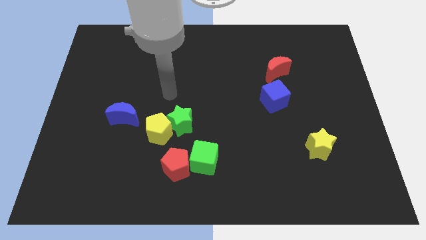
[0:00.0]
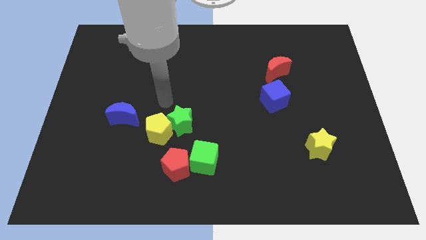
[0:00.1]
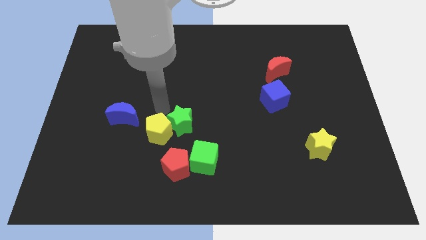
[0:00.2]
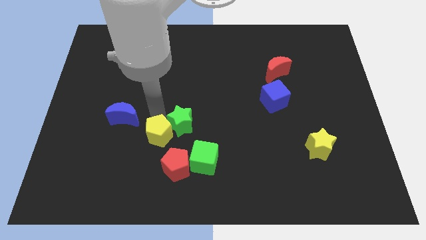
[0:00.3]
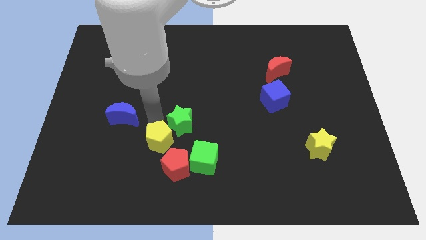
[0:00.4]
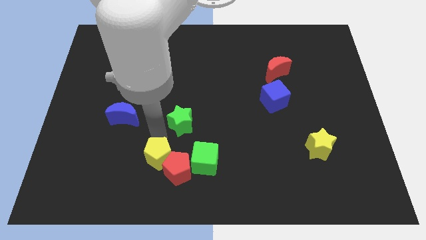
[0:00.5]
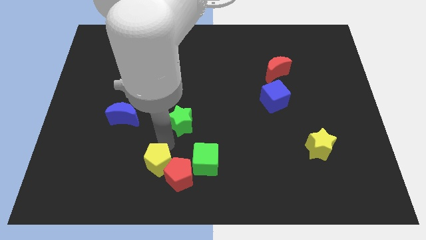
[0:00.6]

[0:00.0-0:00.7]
move the green star away from the yellow pentagon

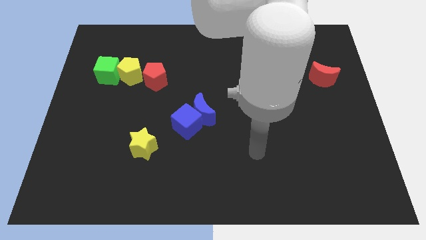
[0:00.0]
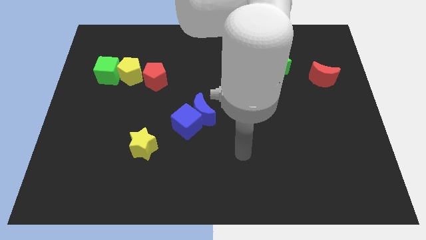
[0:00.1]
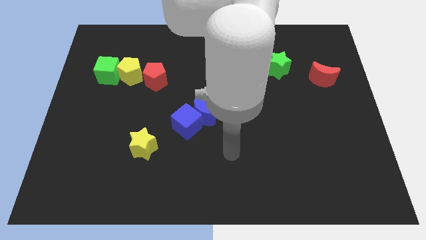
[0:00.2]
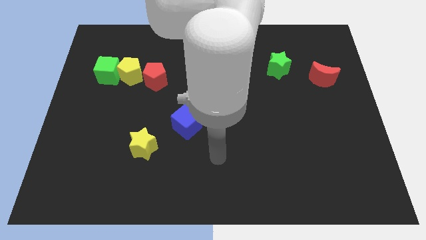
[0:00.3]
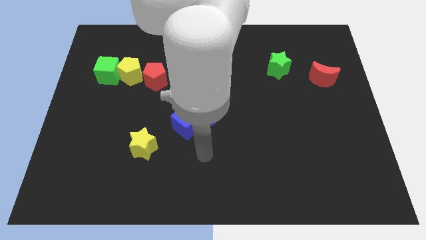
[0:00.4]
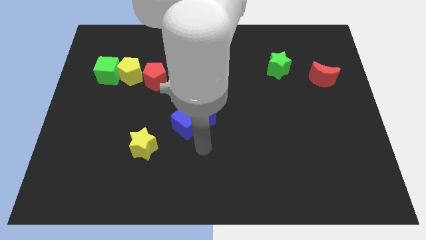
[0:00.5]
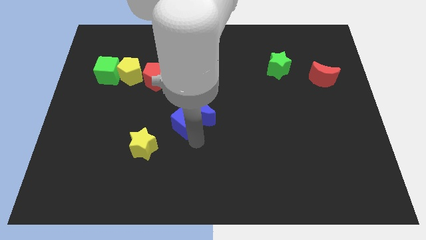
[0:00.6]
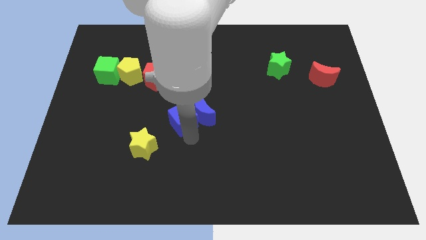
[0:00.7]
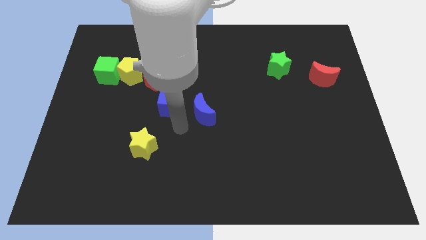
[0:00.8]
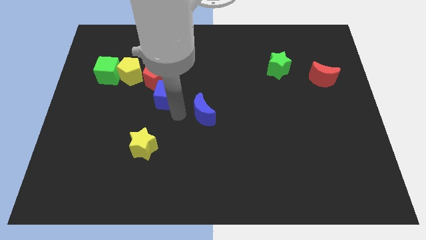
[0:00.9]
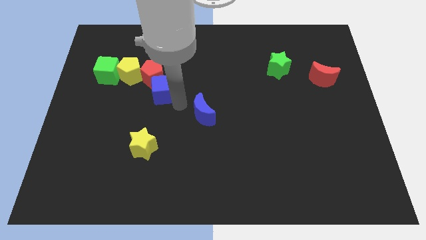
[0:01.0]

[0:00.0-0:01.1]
pull the blue moon apart from the blue cube

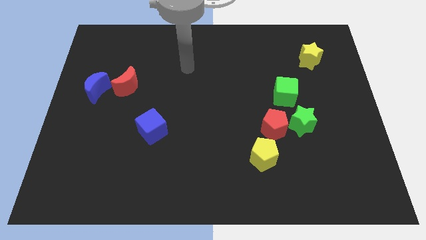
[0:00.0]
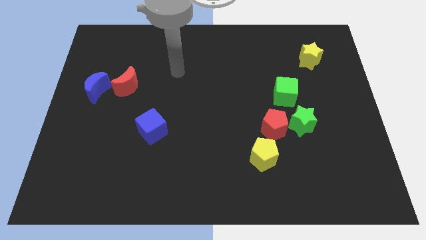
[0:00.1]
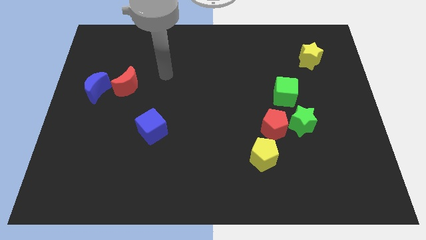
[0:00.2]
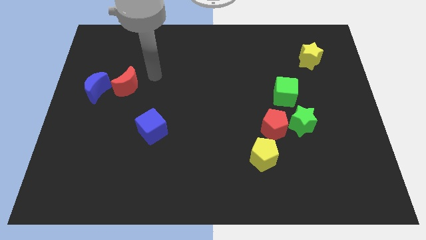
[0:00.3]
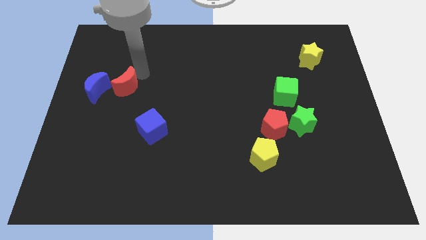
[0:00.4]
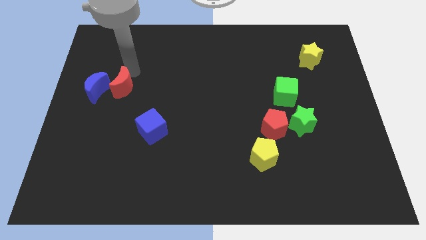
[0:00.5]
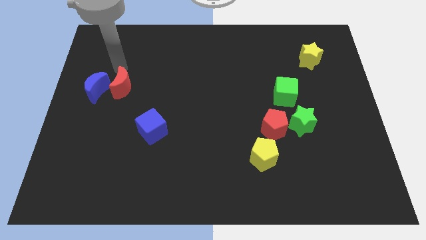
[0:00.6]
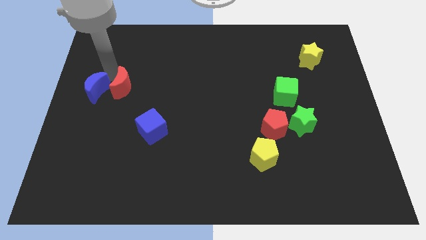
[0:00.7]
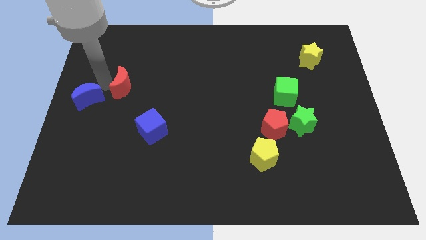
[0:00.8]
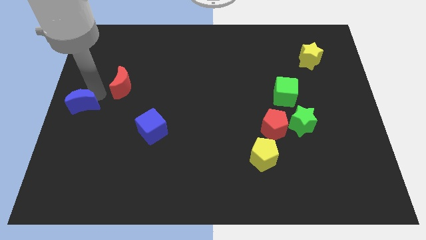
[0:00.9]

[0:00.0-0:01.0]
separate the red moon from the blue moon

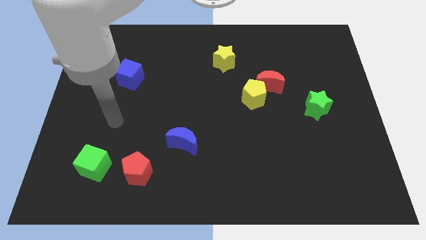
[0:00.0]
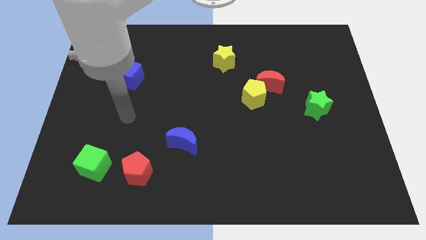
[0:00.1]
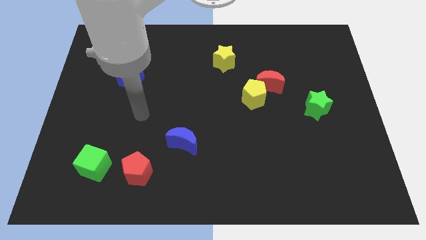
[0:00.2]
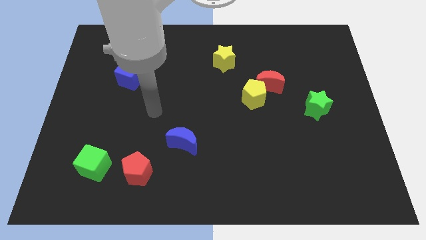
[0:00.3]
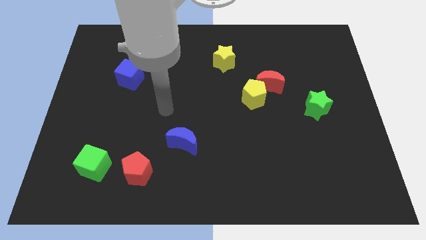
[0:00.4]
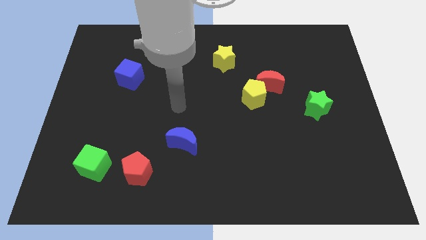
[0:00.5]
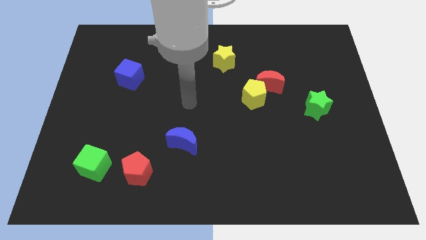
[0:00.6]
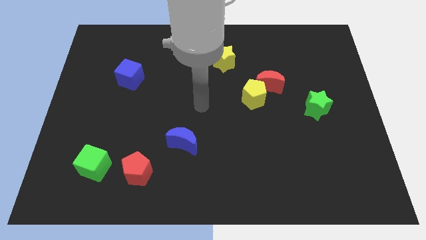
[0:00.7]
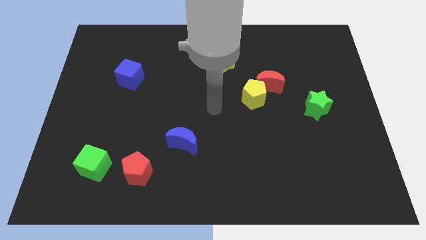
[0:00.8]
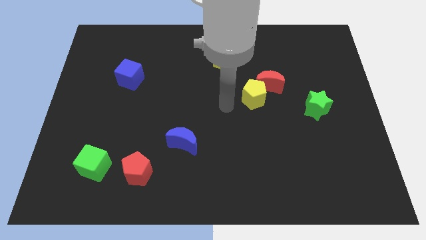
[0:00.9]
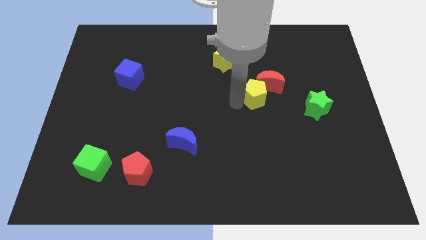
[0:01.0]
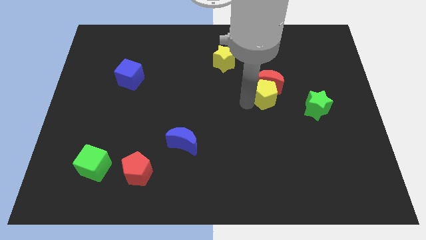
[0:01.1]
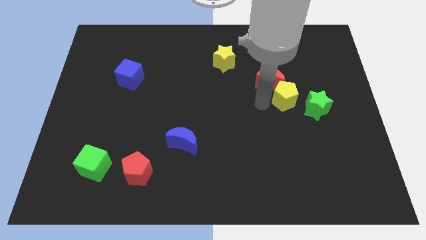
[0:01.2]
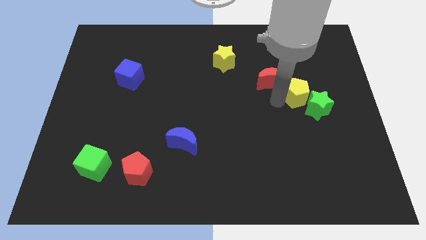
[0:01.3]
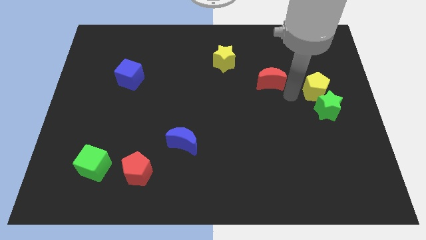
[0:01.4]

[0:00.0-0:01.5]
move the red moon away from the yellow pentagon

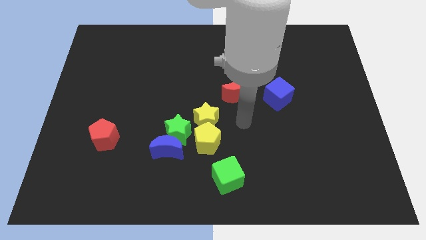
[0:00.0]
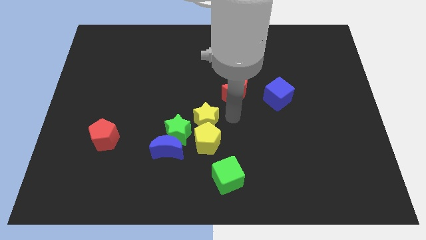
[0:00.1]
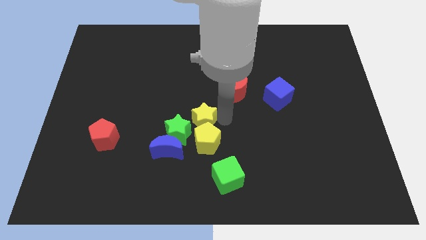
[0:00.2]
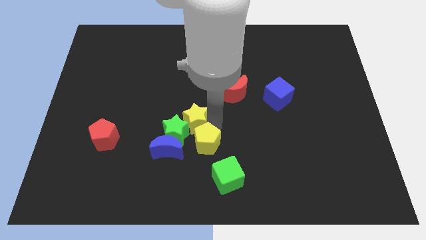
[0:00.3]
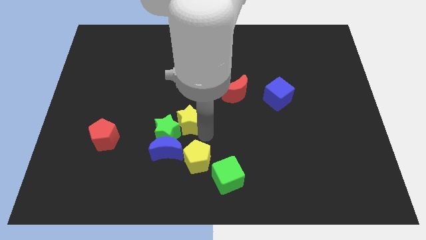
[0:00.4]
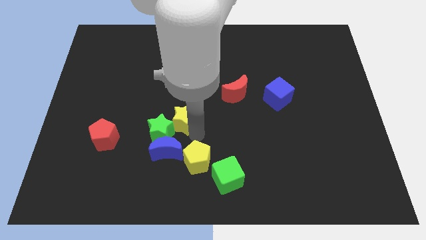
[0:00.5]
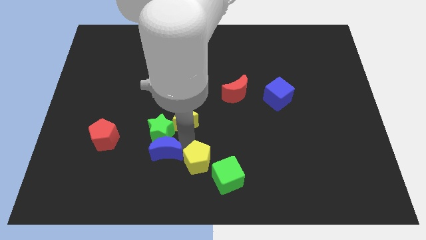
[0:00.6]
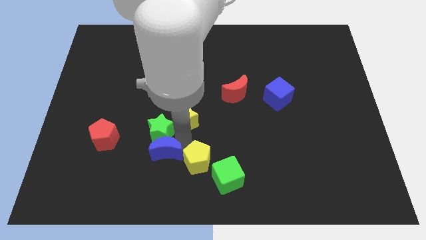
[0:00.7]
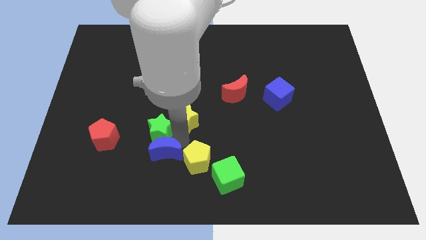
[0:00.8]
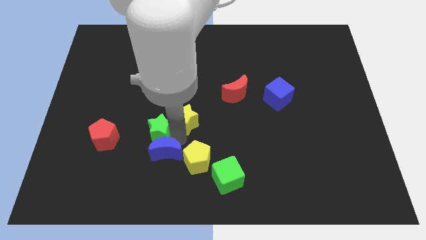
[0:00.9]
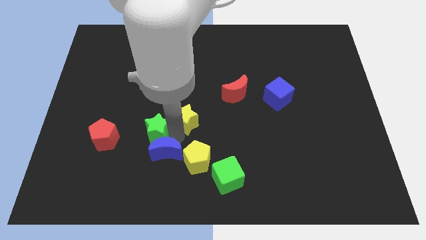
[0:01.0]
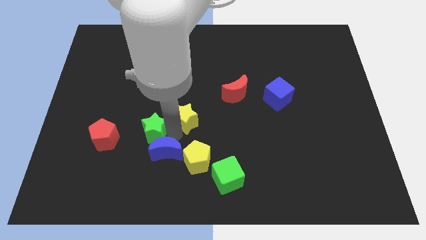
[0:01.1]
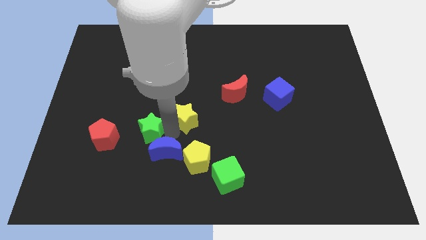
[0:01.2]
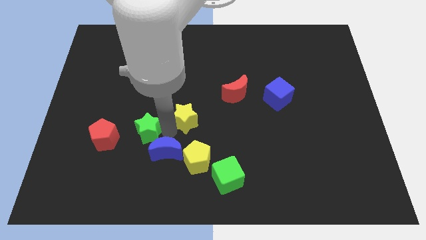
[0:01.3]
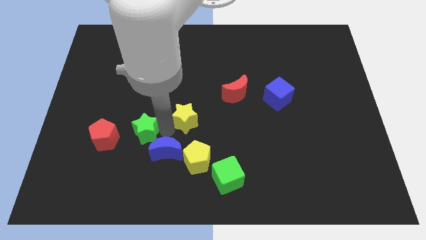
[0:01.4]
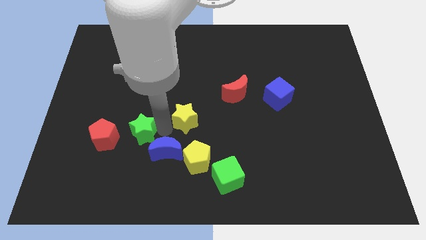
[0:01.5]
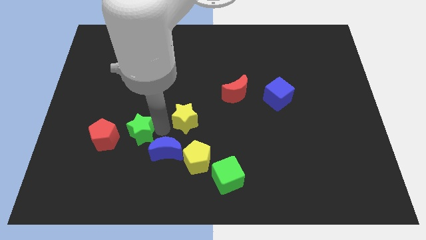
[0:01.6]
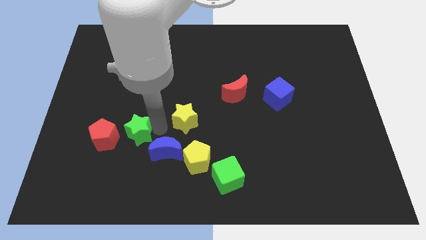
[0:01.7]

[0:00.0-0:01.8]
move the green star away from the clump

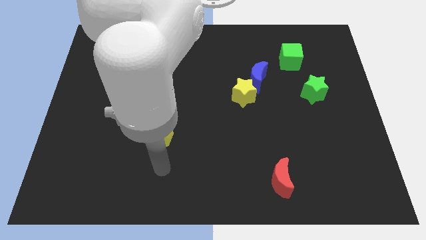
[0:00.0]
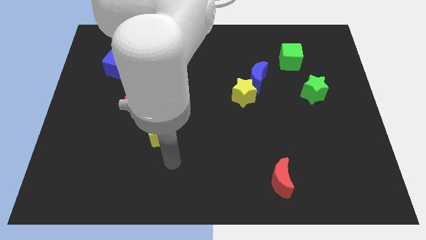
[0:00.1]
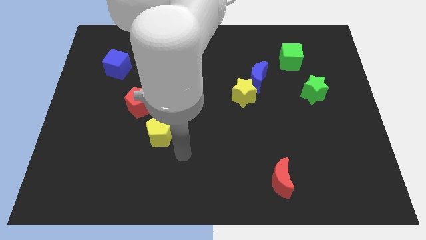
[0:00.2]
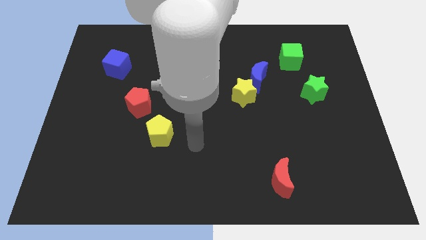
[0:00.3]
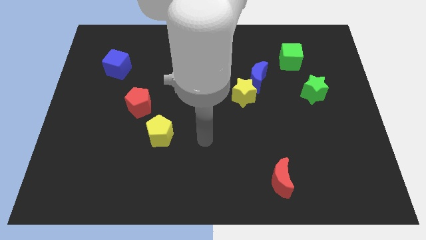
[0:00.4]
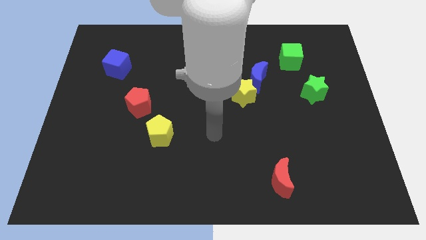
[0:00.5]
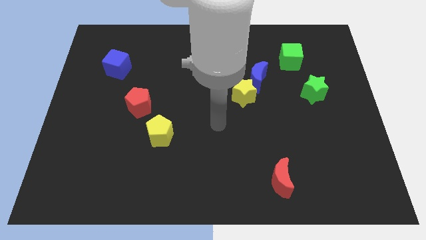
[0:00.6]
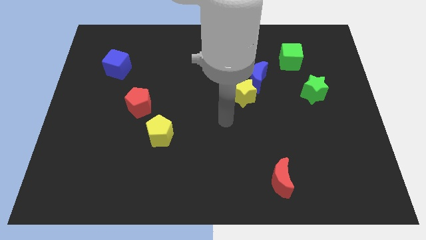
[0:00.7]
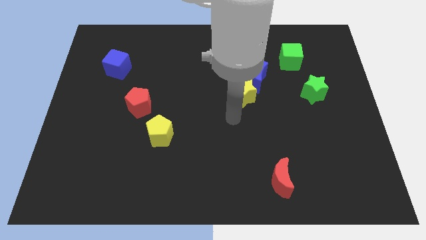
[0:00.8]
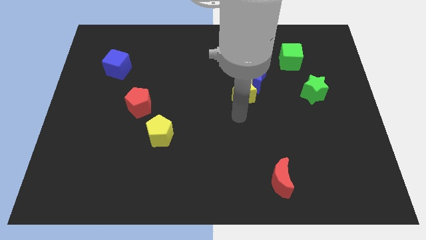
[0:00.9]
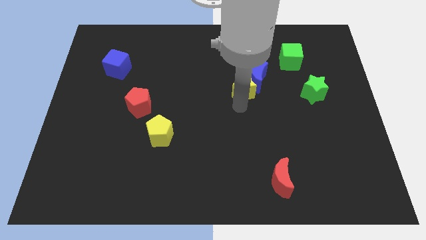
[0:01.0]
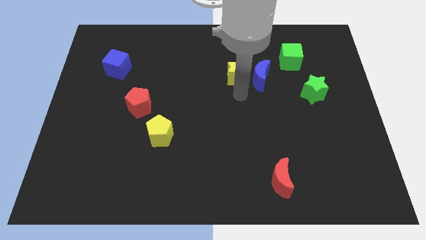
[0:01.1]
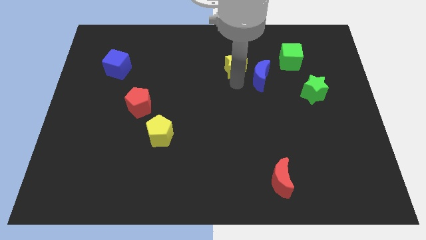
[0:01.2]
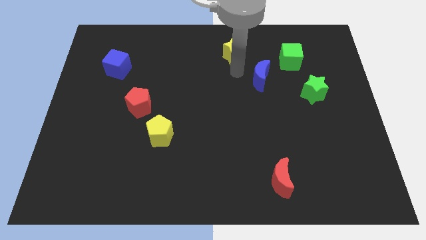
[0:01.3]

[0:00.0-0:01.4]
pull the blue moon apart from the yellow star

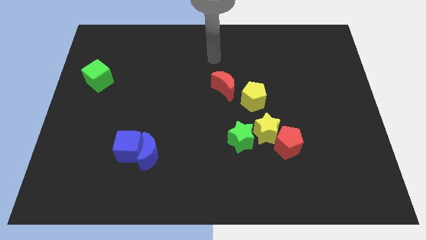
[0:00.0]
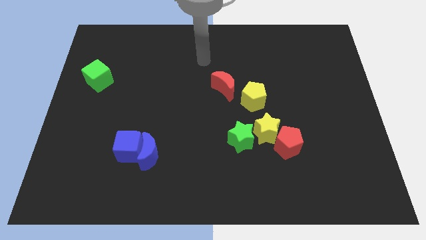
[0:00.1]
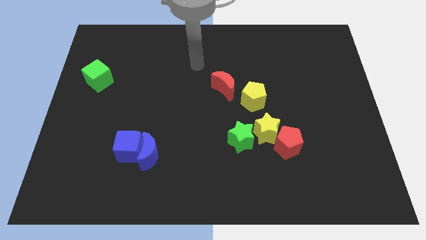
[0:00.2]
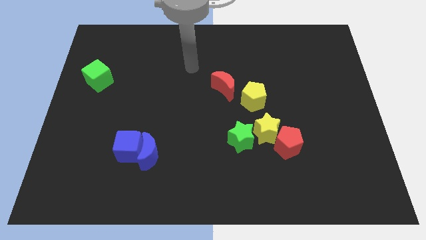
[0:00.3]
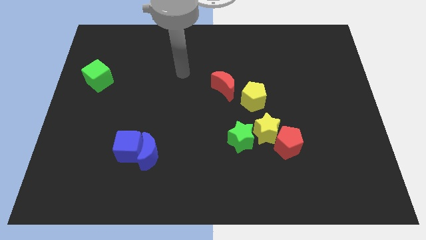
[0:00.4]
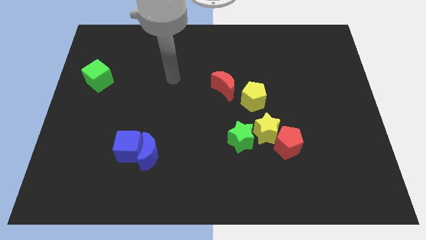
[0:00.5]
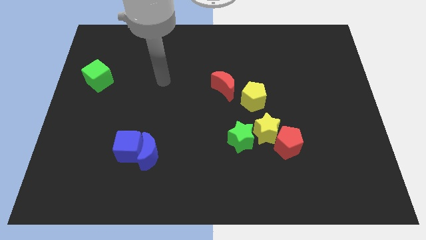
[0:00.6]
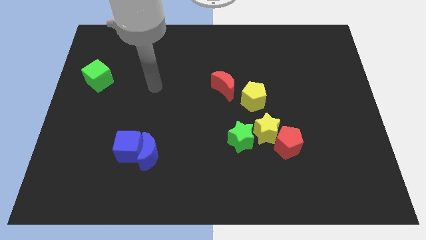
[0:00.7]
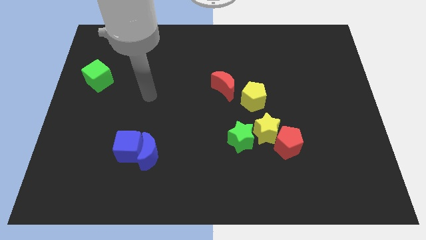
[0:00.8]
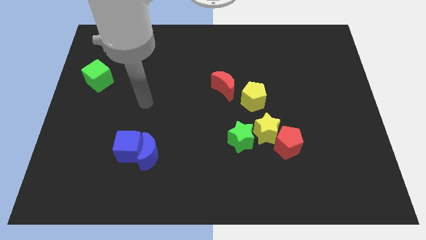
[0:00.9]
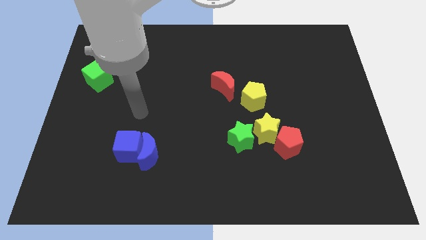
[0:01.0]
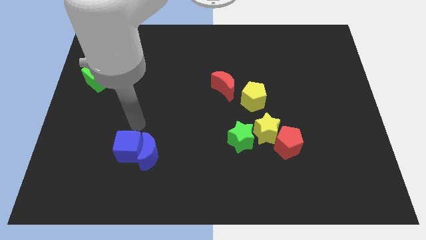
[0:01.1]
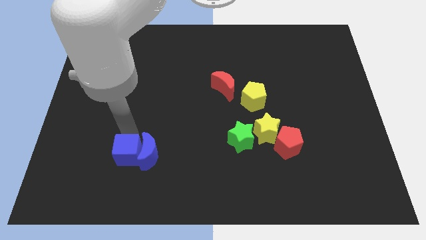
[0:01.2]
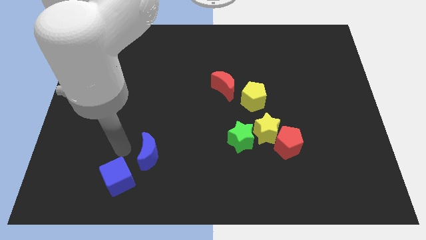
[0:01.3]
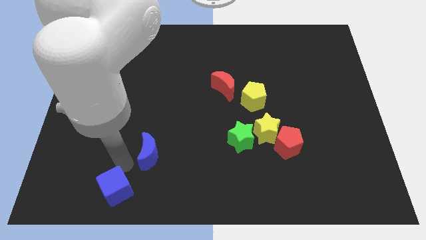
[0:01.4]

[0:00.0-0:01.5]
separate the blue moon from the blue cube

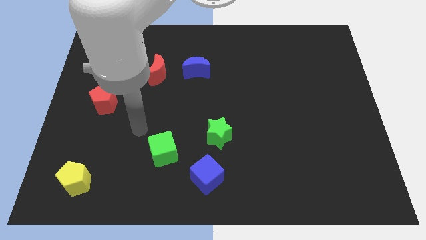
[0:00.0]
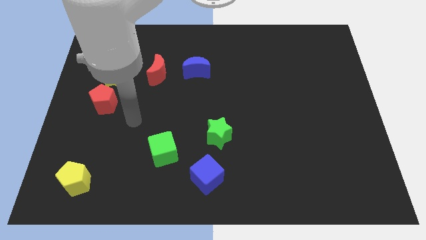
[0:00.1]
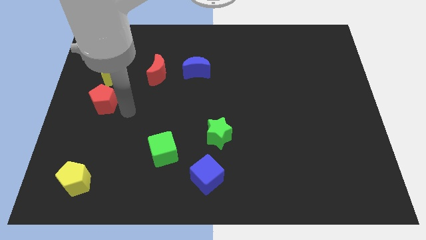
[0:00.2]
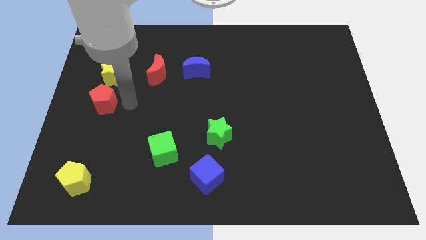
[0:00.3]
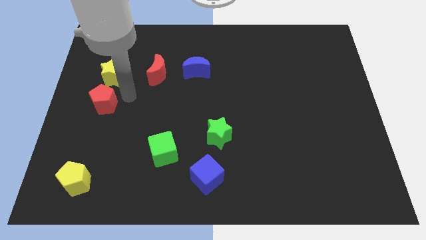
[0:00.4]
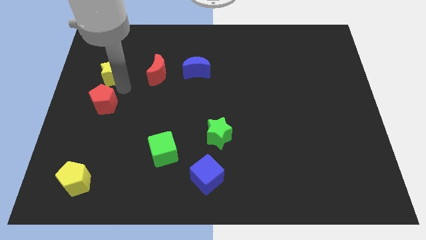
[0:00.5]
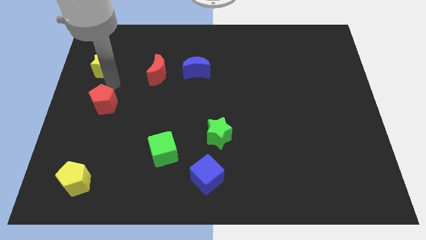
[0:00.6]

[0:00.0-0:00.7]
pull the red pentagon apart from the yellow star
